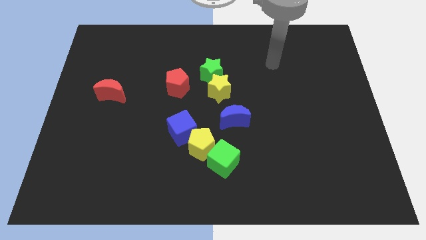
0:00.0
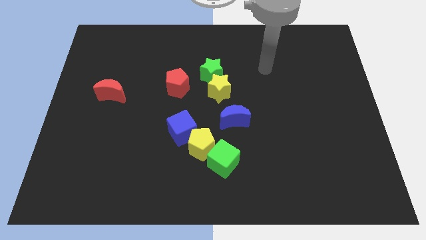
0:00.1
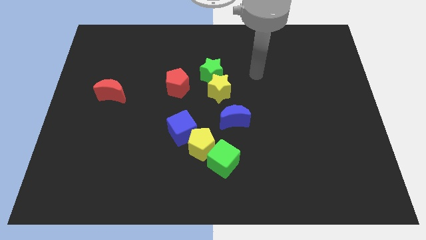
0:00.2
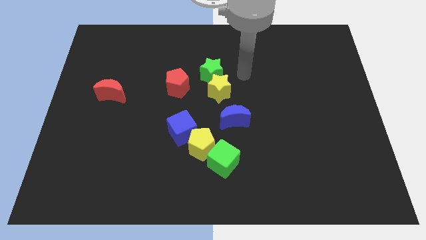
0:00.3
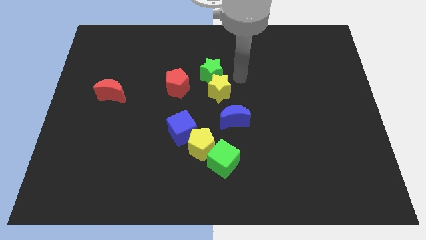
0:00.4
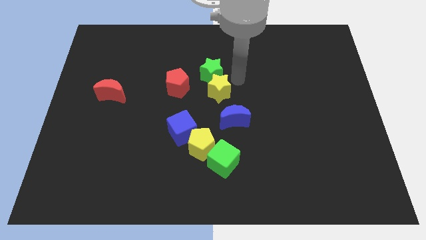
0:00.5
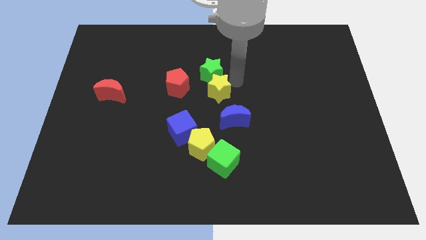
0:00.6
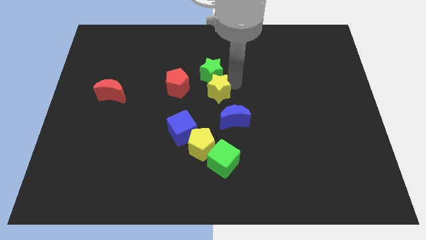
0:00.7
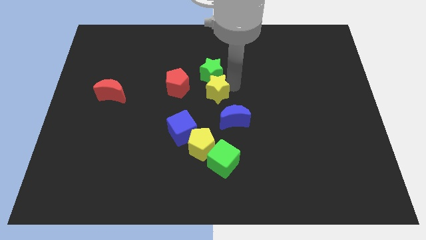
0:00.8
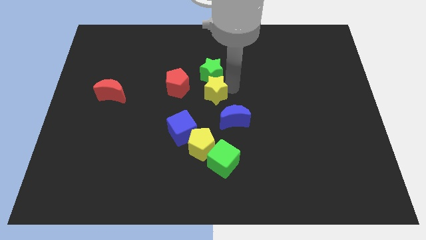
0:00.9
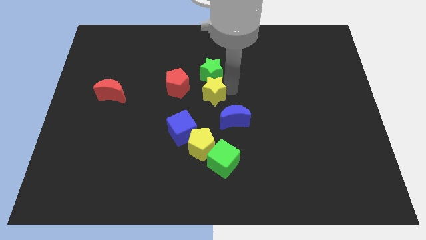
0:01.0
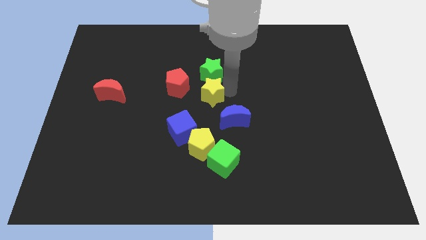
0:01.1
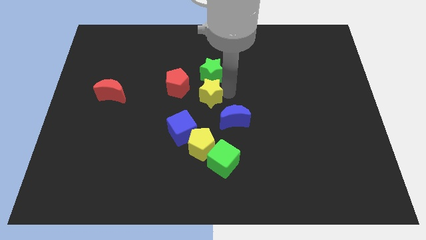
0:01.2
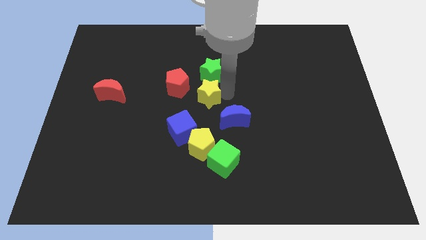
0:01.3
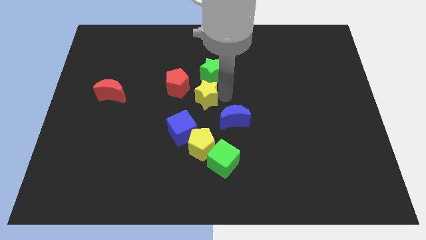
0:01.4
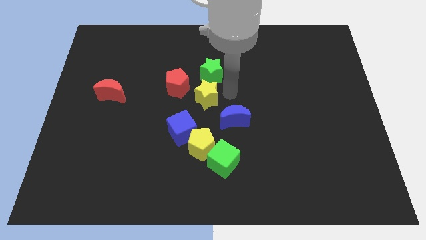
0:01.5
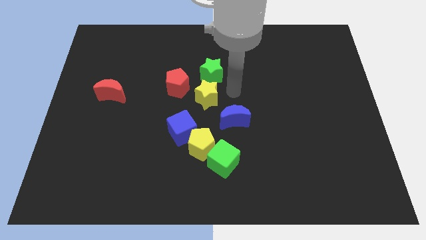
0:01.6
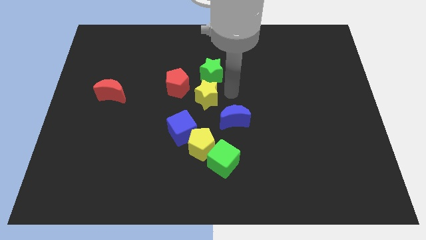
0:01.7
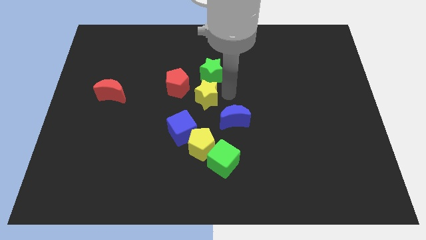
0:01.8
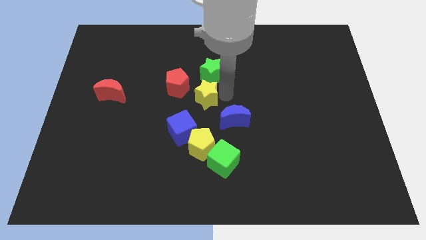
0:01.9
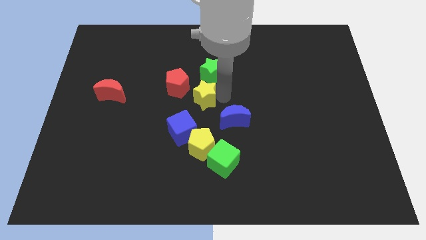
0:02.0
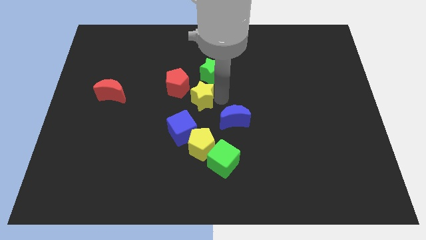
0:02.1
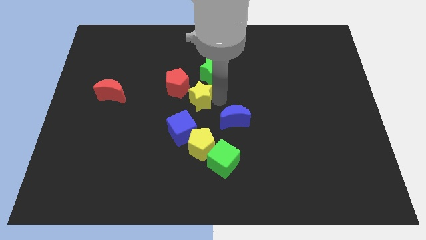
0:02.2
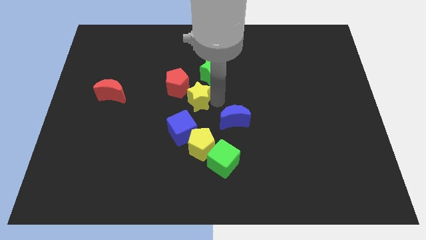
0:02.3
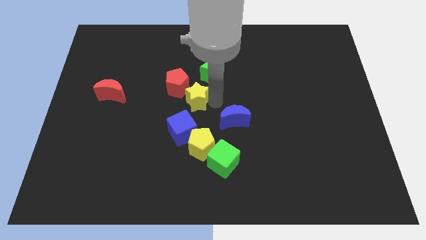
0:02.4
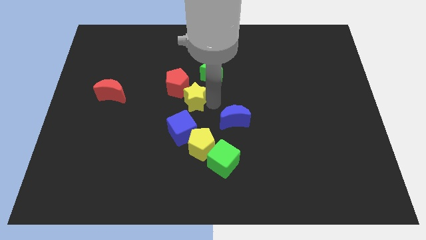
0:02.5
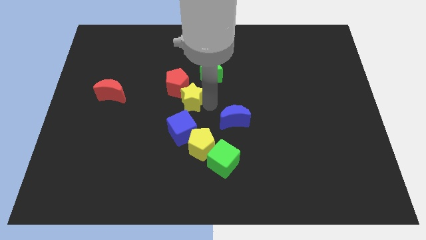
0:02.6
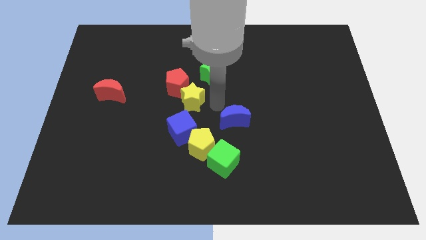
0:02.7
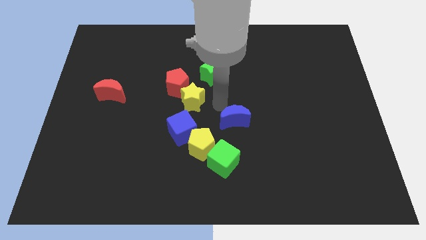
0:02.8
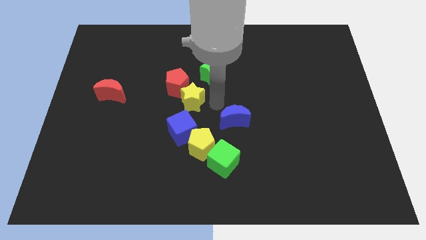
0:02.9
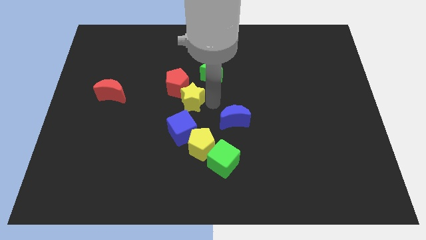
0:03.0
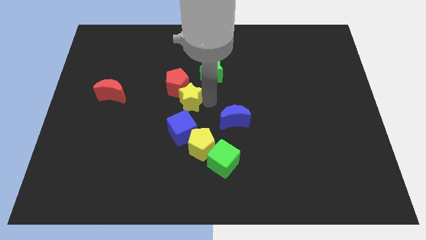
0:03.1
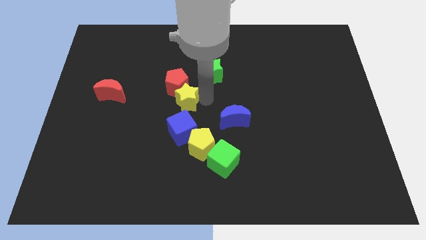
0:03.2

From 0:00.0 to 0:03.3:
move the yellow star somewhat left

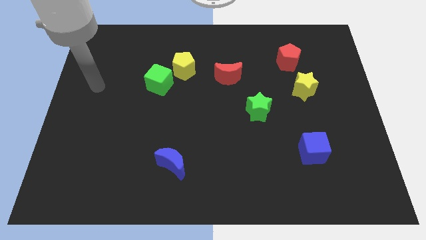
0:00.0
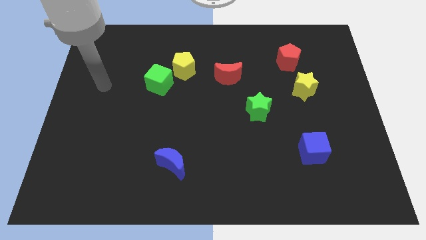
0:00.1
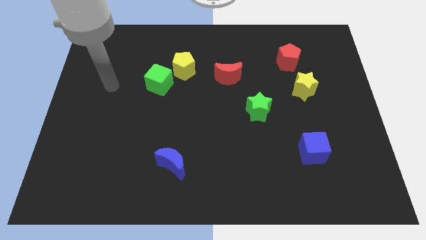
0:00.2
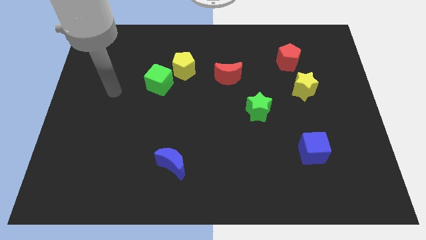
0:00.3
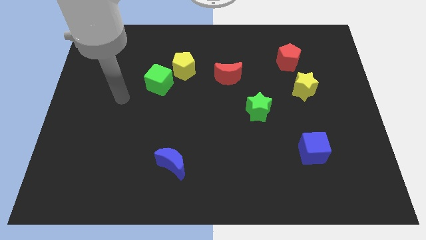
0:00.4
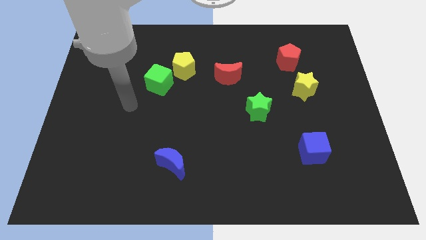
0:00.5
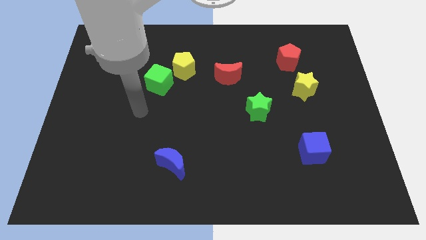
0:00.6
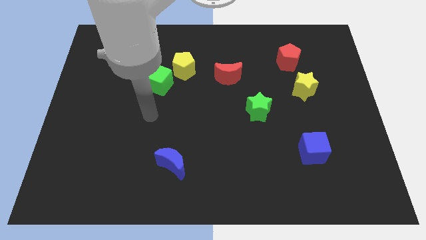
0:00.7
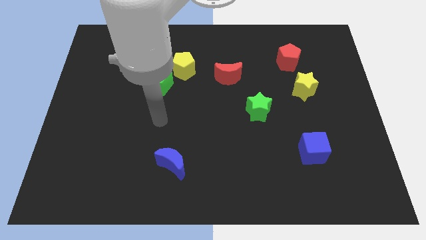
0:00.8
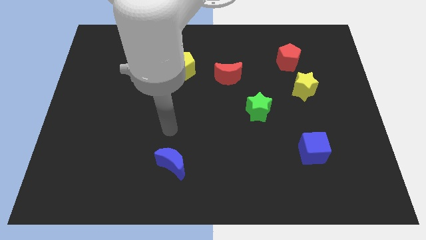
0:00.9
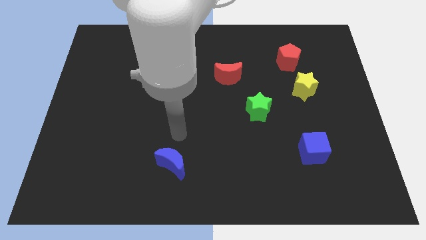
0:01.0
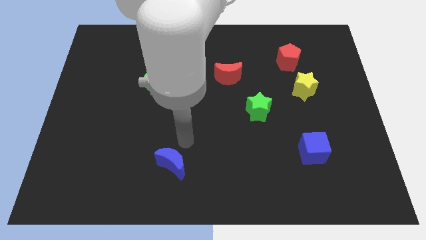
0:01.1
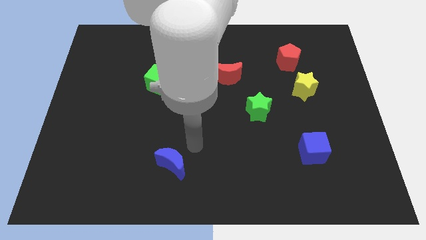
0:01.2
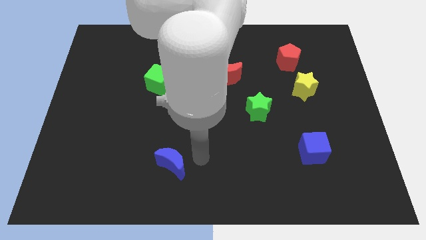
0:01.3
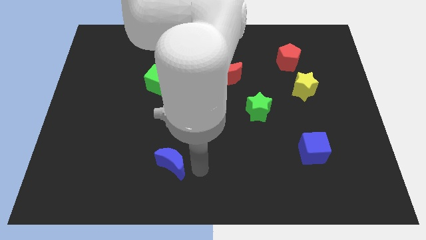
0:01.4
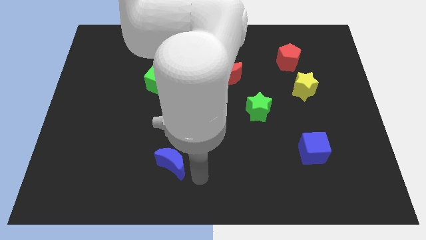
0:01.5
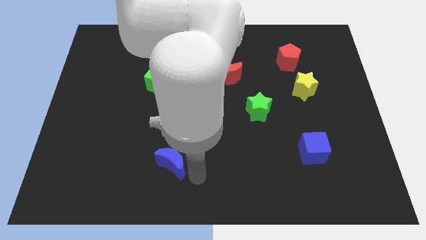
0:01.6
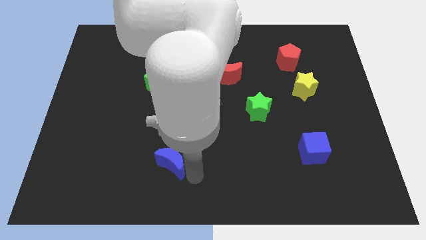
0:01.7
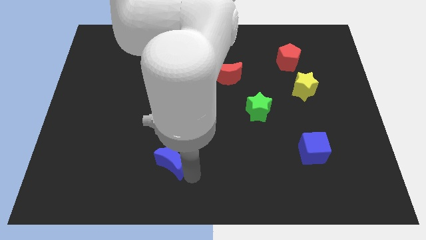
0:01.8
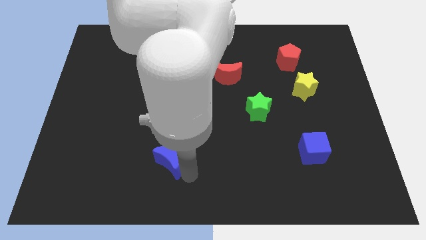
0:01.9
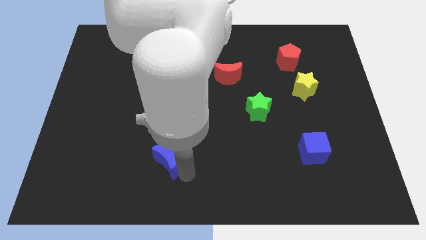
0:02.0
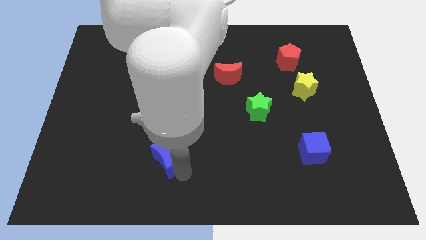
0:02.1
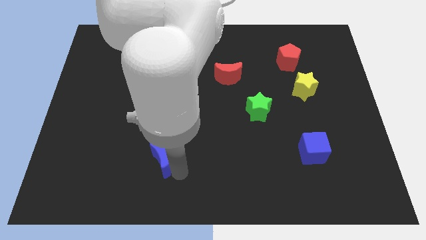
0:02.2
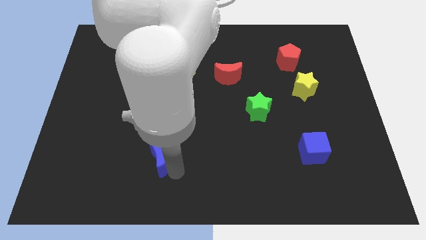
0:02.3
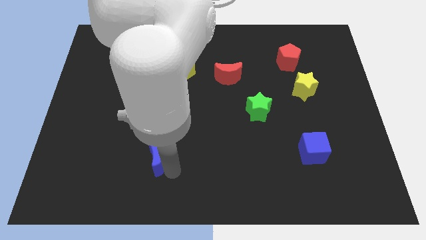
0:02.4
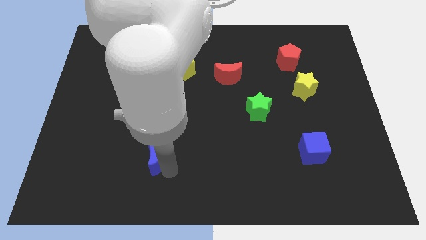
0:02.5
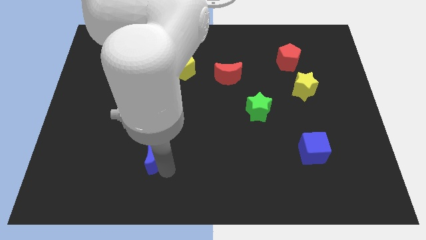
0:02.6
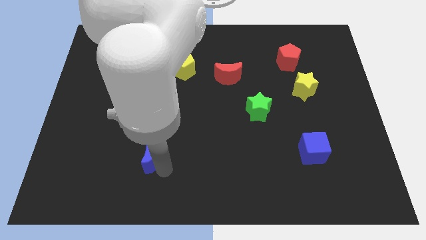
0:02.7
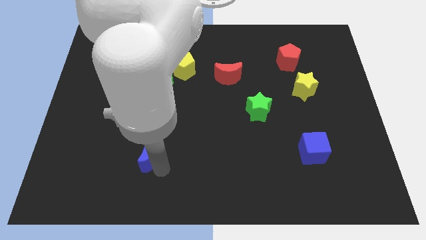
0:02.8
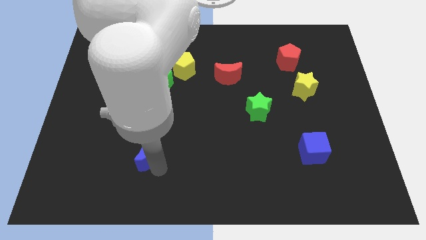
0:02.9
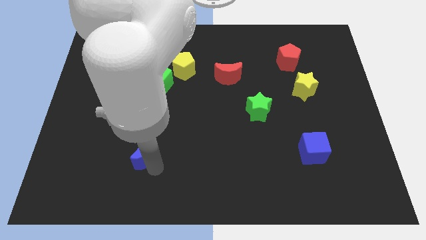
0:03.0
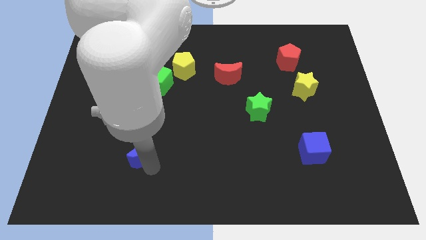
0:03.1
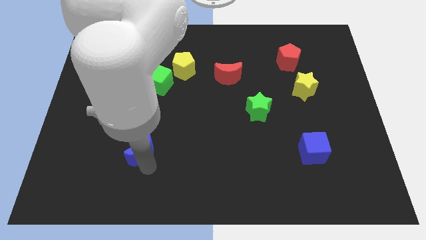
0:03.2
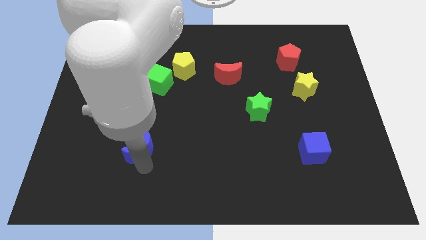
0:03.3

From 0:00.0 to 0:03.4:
move the blue moon somewhat diagonally up and left

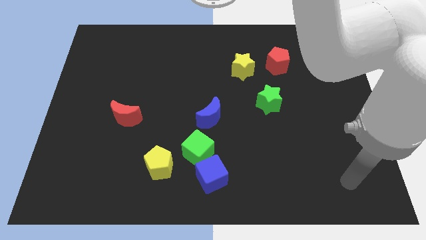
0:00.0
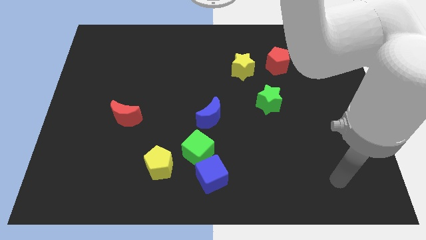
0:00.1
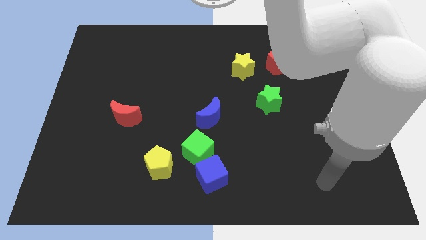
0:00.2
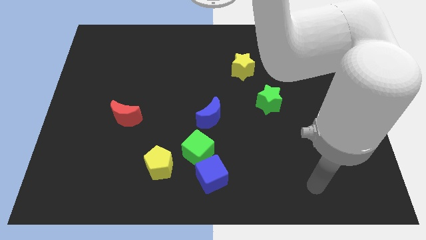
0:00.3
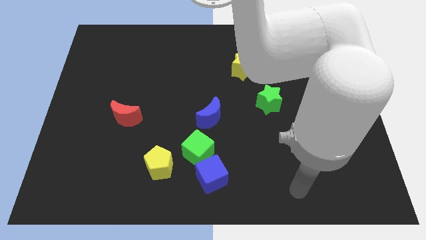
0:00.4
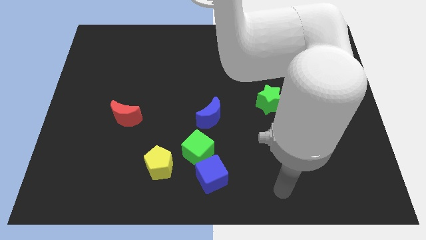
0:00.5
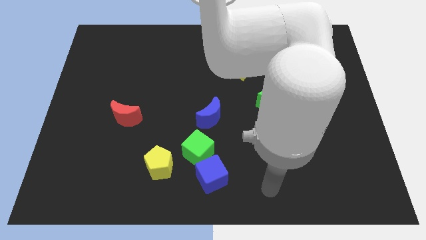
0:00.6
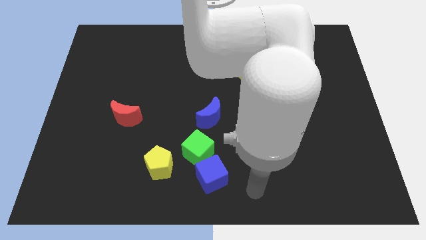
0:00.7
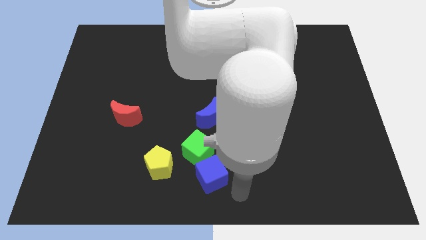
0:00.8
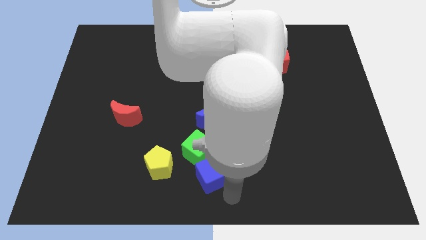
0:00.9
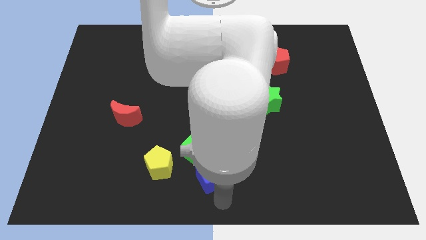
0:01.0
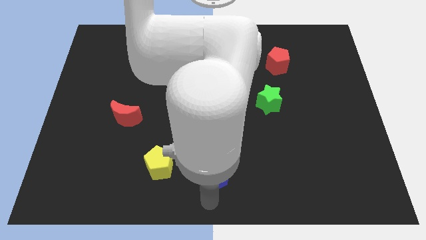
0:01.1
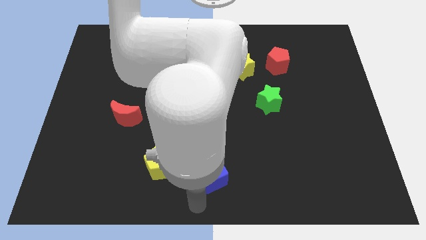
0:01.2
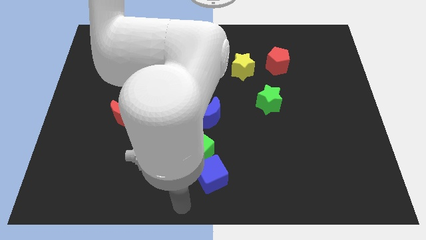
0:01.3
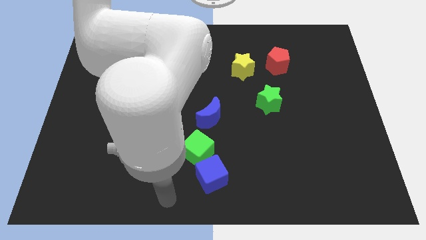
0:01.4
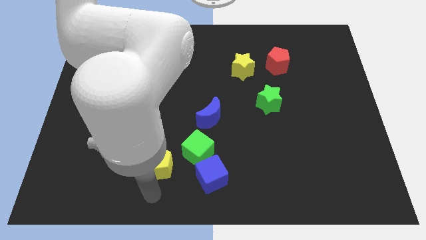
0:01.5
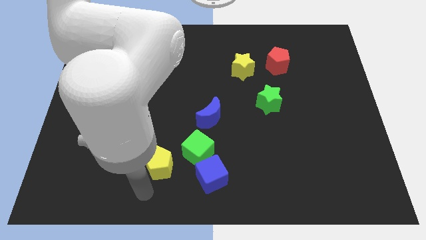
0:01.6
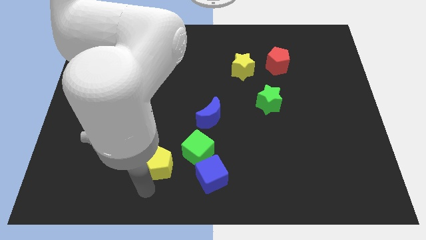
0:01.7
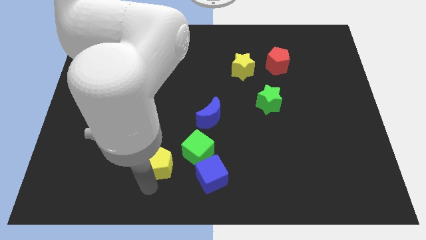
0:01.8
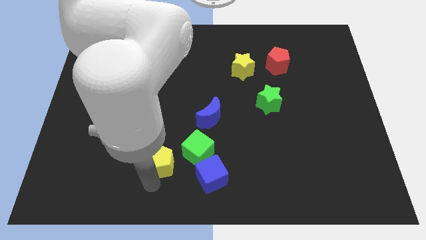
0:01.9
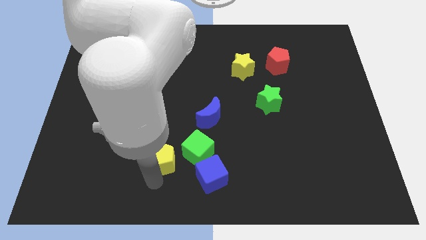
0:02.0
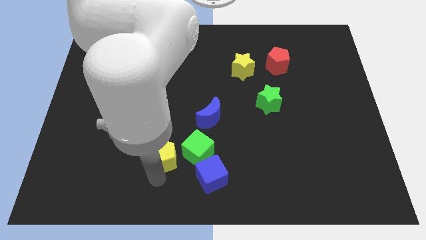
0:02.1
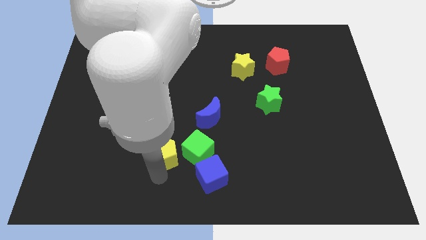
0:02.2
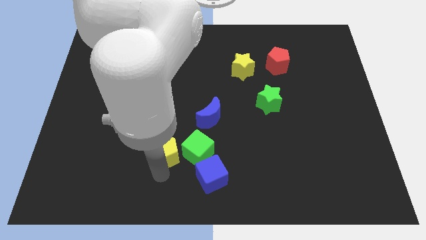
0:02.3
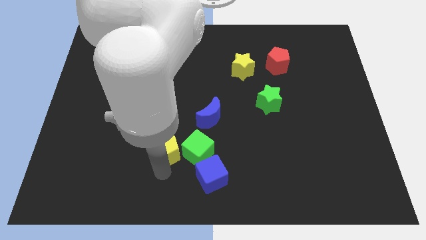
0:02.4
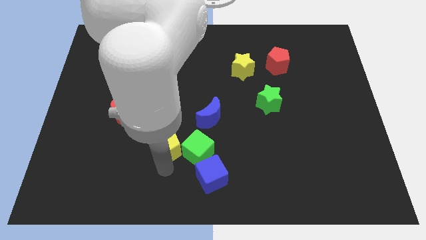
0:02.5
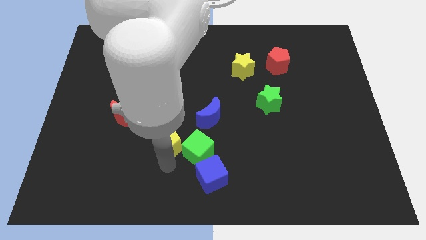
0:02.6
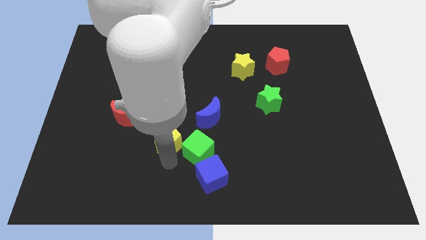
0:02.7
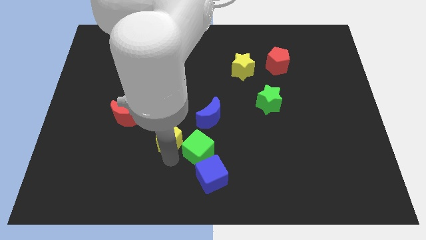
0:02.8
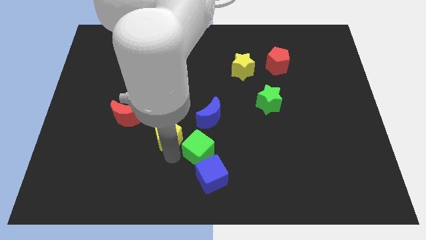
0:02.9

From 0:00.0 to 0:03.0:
push the yellow pentagon up a bit
